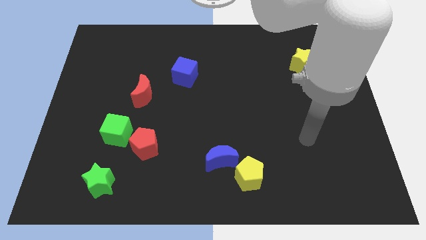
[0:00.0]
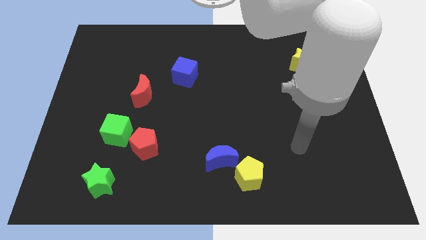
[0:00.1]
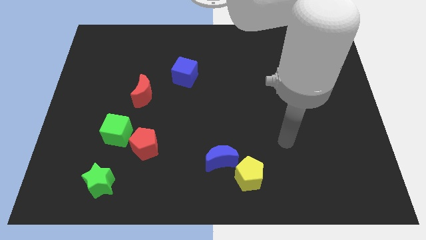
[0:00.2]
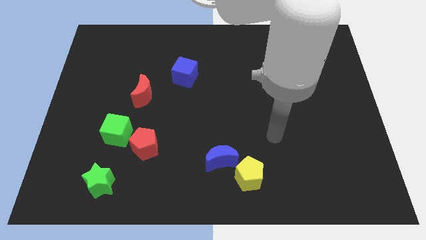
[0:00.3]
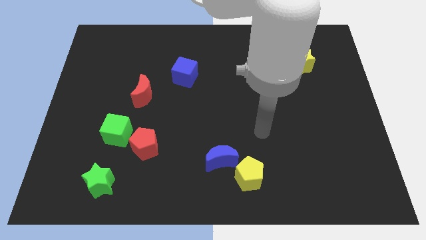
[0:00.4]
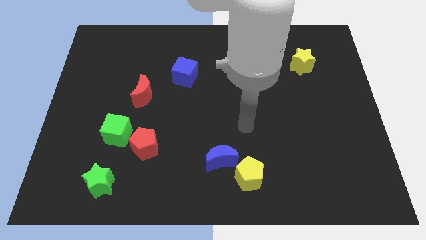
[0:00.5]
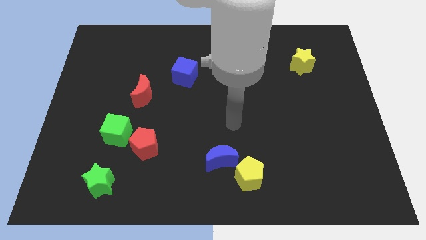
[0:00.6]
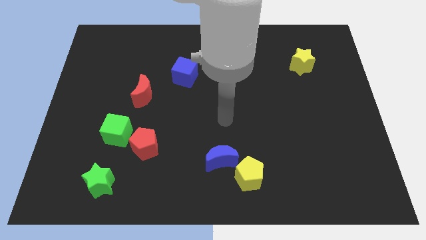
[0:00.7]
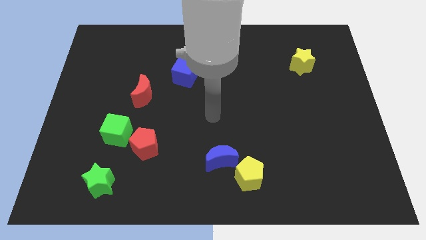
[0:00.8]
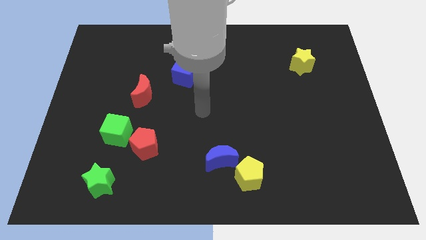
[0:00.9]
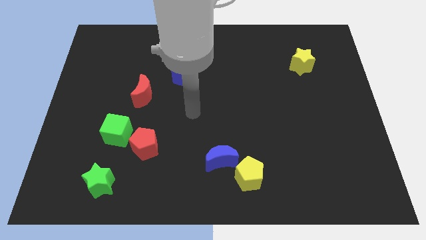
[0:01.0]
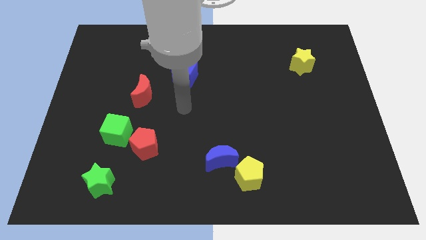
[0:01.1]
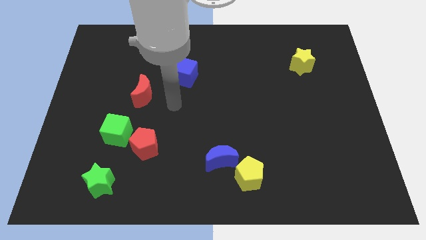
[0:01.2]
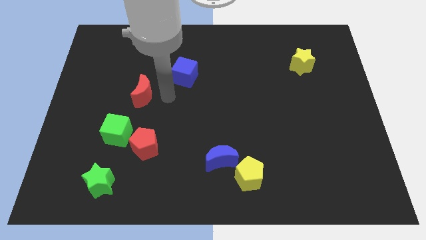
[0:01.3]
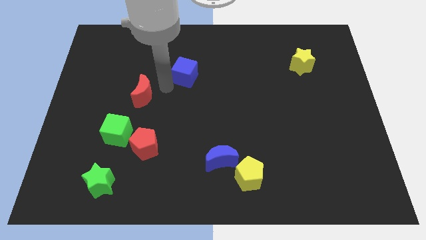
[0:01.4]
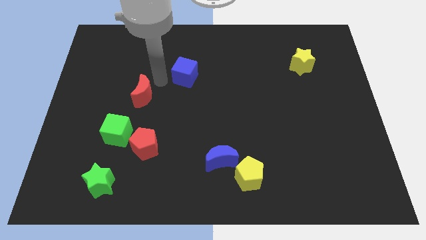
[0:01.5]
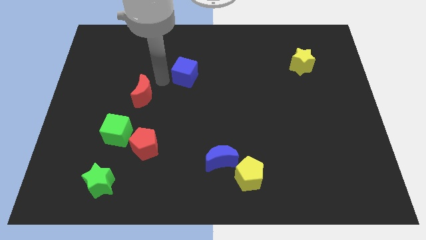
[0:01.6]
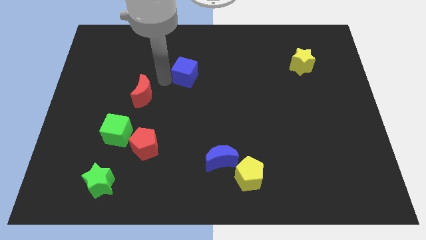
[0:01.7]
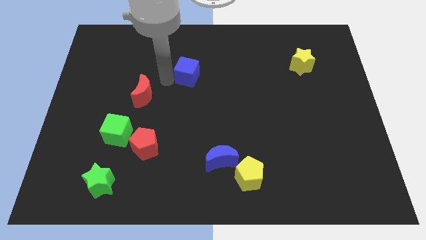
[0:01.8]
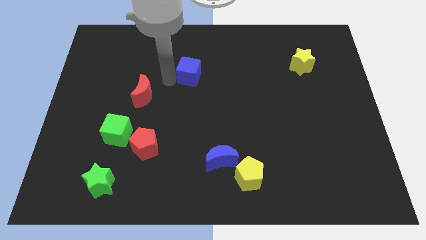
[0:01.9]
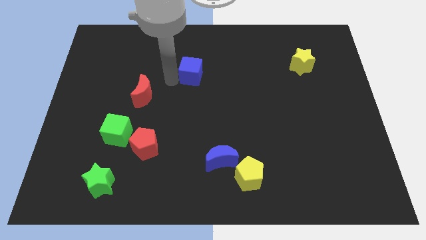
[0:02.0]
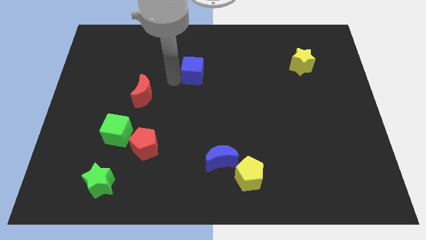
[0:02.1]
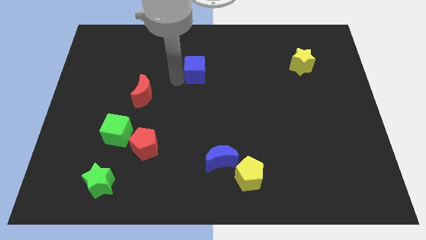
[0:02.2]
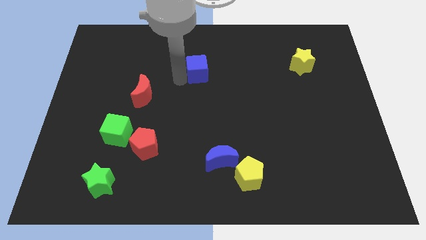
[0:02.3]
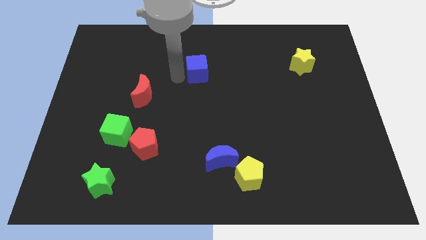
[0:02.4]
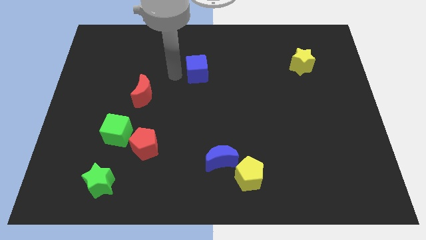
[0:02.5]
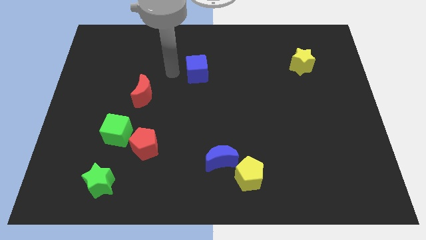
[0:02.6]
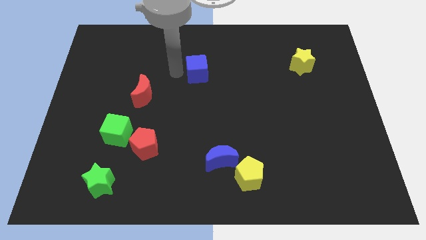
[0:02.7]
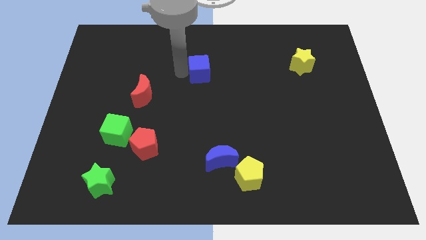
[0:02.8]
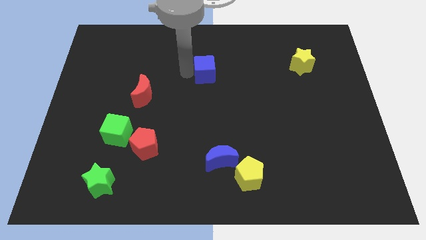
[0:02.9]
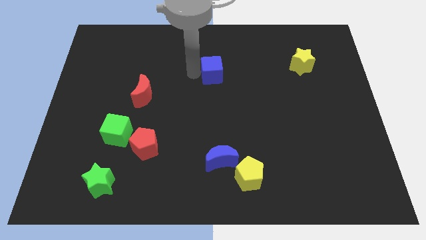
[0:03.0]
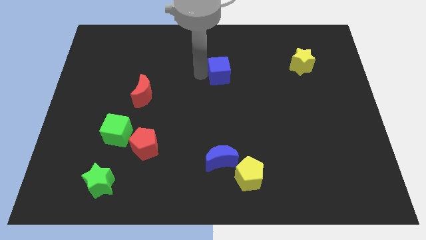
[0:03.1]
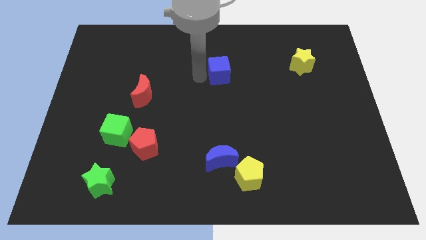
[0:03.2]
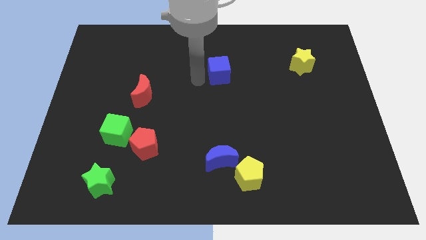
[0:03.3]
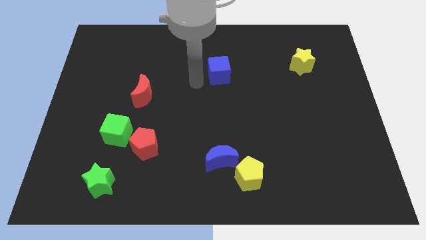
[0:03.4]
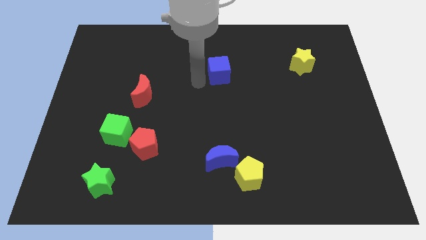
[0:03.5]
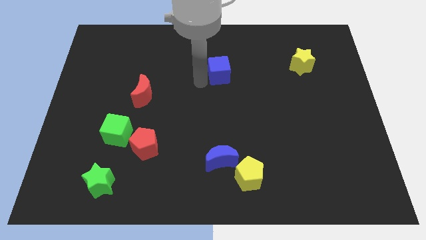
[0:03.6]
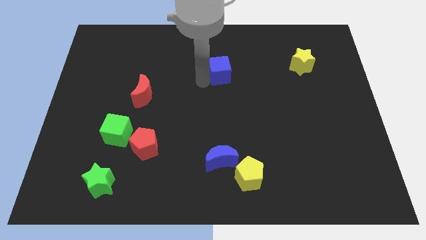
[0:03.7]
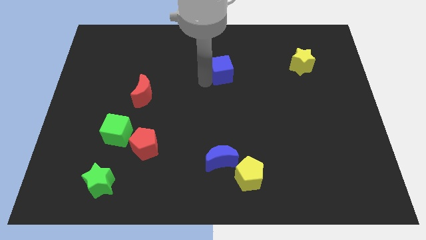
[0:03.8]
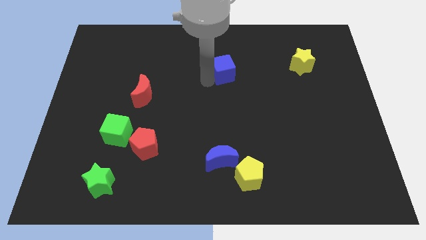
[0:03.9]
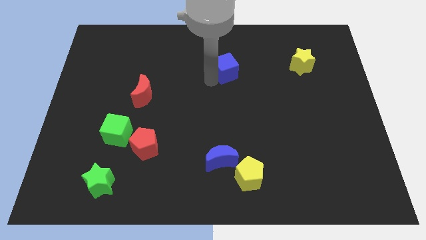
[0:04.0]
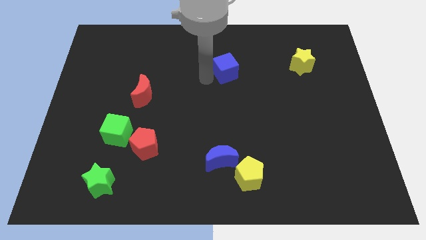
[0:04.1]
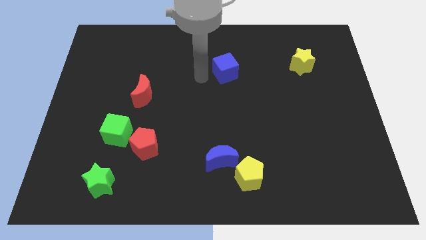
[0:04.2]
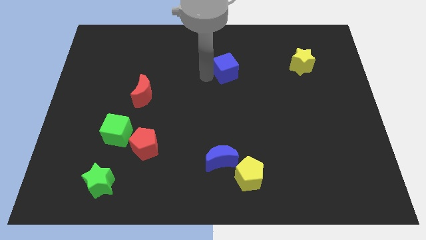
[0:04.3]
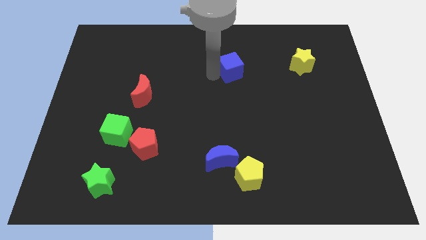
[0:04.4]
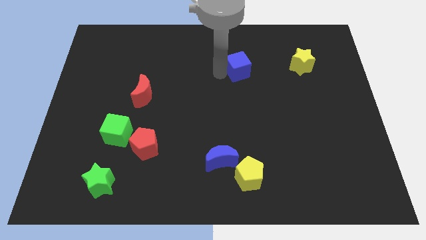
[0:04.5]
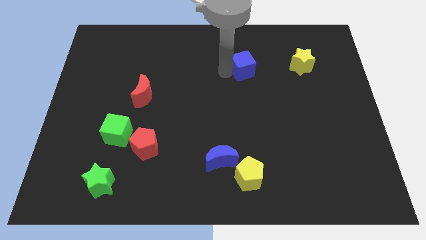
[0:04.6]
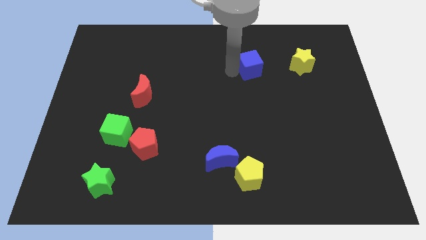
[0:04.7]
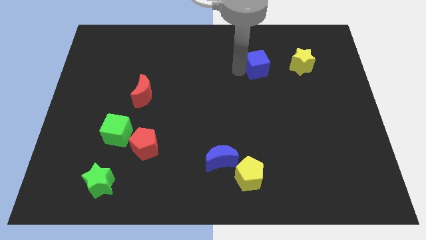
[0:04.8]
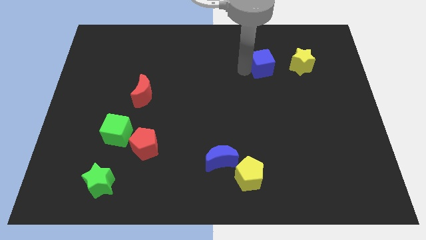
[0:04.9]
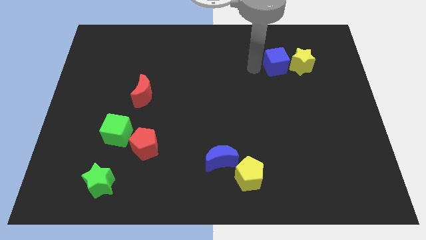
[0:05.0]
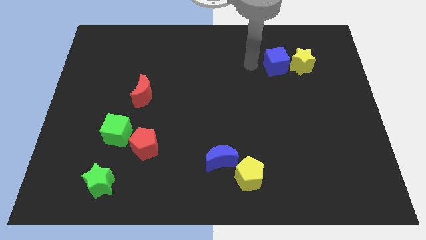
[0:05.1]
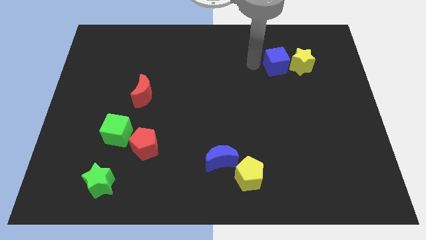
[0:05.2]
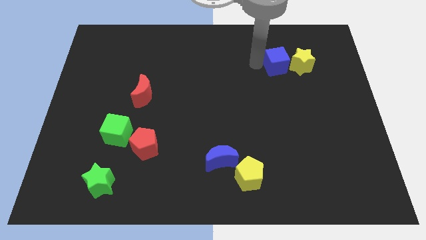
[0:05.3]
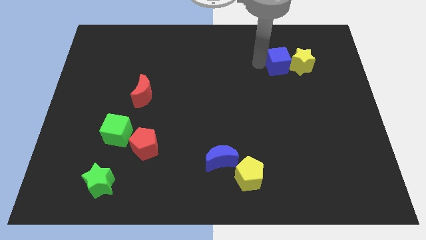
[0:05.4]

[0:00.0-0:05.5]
push the blue cube next to the yellow star

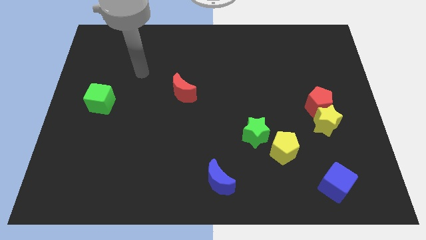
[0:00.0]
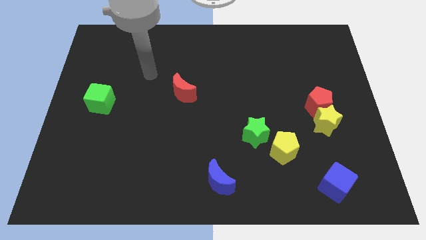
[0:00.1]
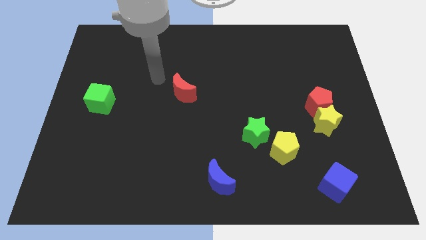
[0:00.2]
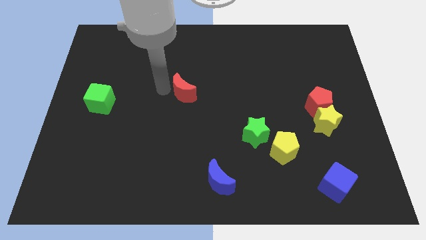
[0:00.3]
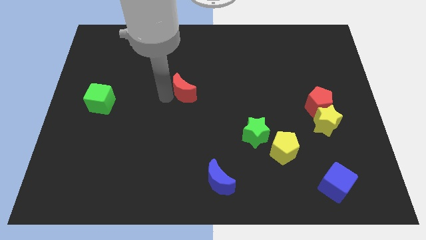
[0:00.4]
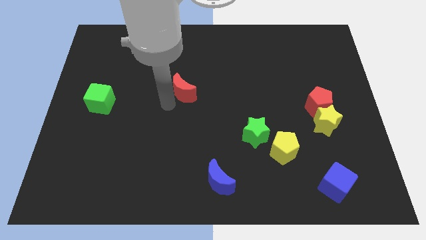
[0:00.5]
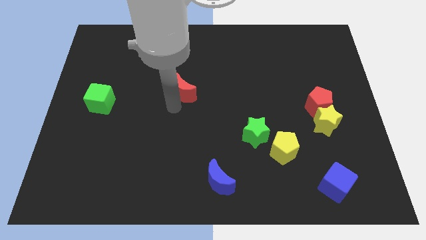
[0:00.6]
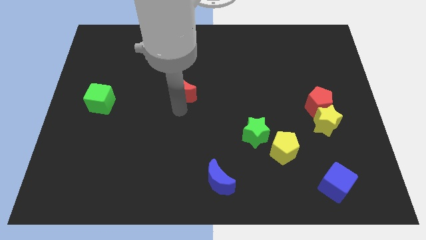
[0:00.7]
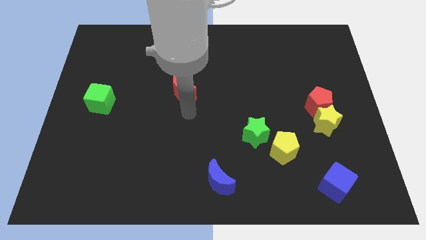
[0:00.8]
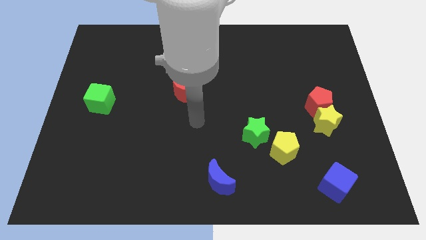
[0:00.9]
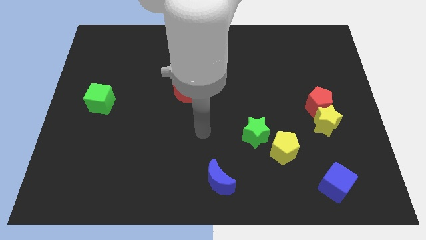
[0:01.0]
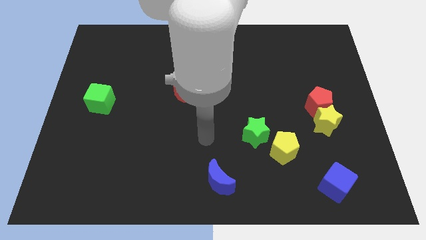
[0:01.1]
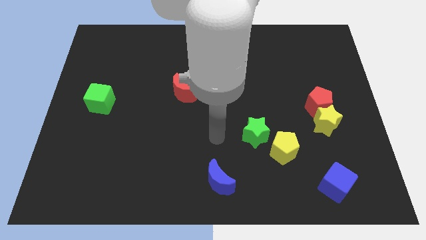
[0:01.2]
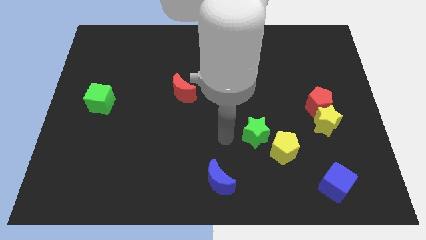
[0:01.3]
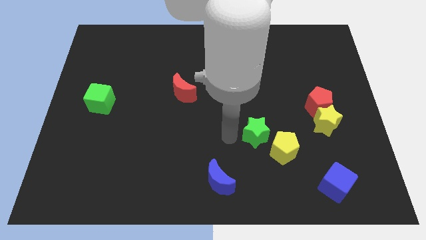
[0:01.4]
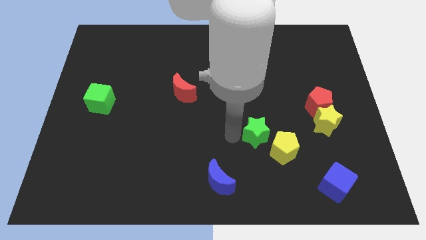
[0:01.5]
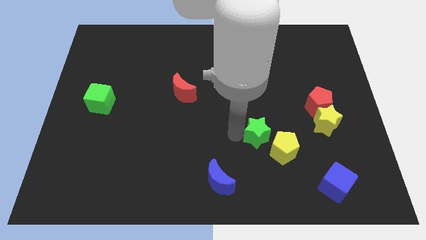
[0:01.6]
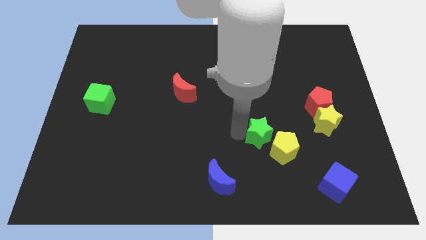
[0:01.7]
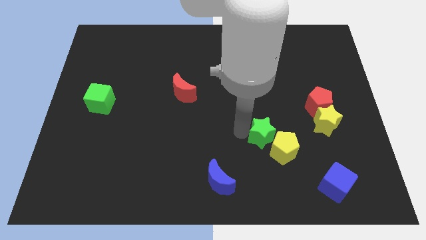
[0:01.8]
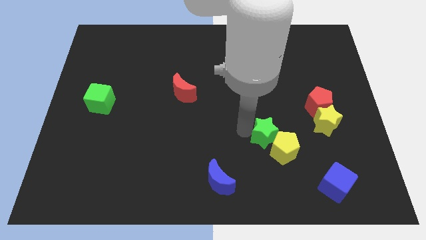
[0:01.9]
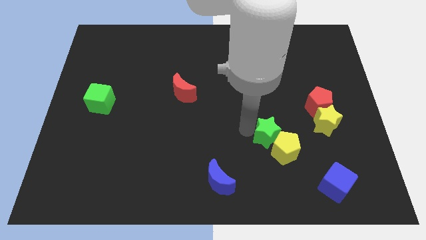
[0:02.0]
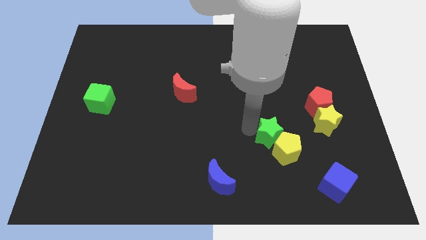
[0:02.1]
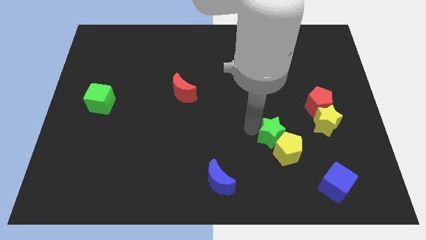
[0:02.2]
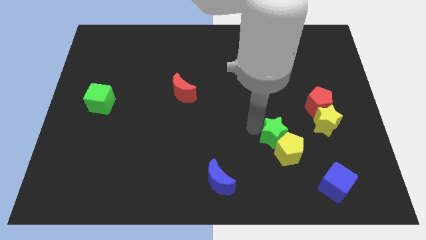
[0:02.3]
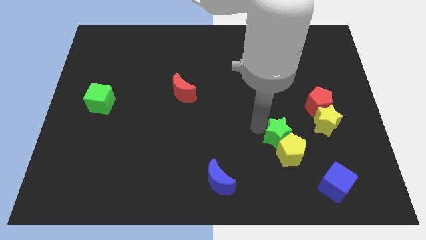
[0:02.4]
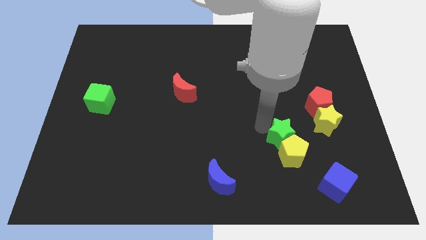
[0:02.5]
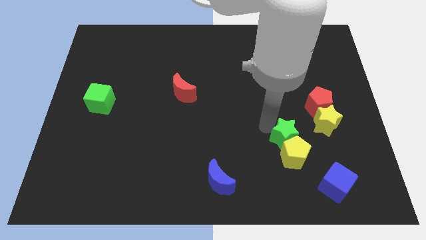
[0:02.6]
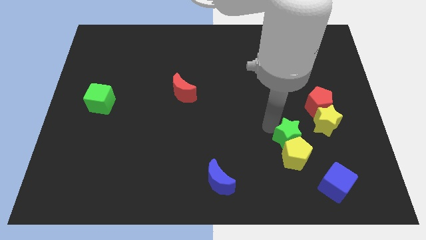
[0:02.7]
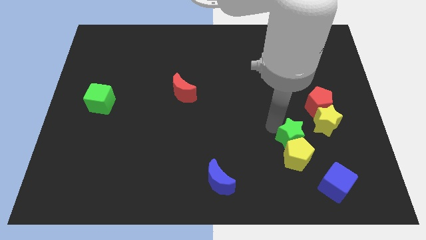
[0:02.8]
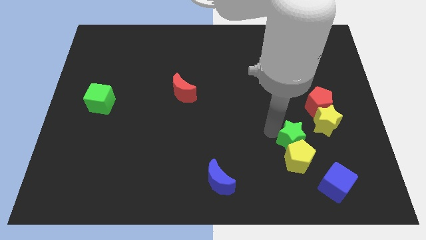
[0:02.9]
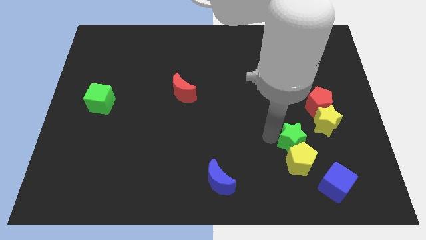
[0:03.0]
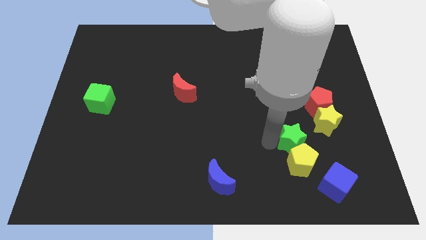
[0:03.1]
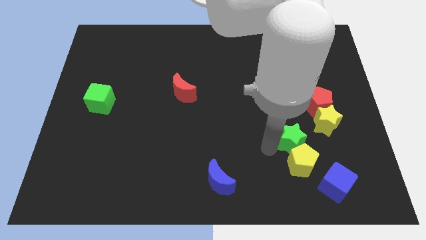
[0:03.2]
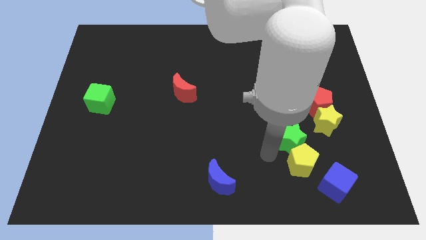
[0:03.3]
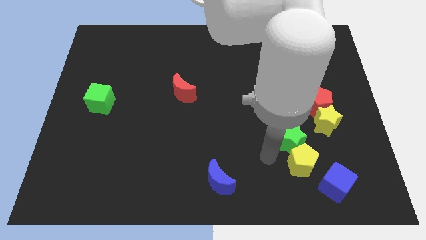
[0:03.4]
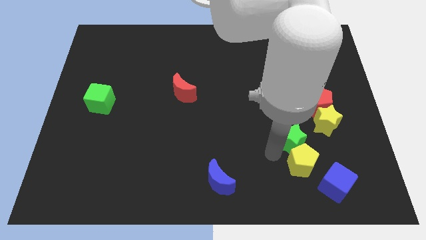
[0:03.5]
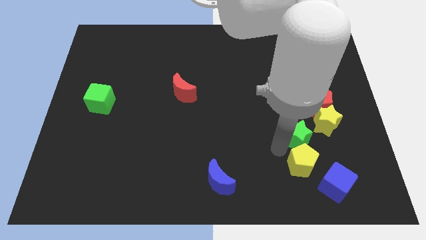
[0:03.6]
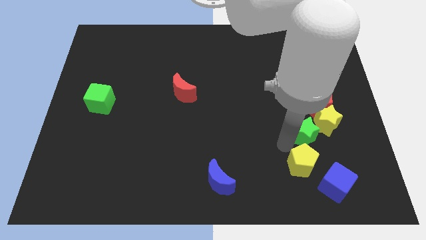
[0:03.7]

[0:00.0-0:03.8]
push the green star towards the yellow star
